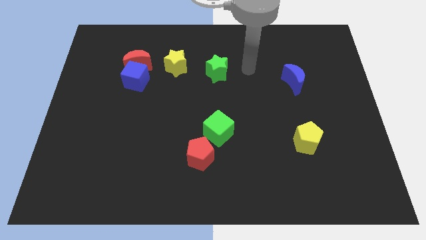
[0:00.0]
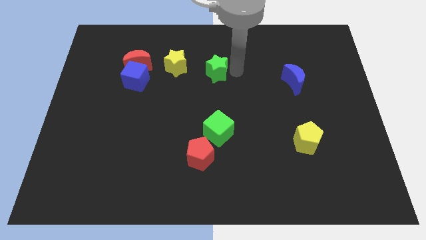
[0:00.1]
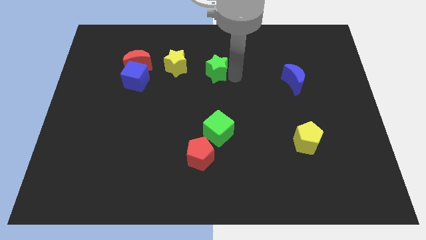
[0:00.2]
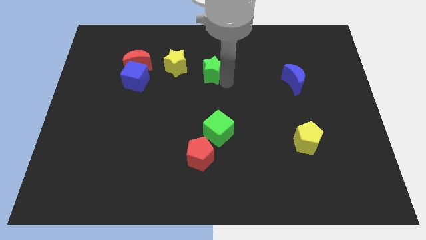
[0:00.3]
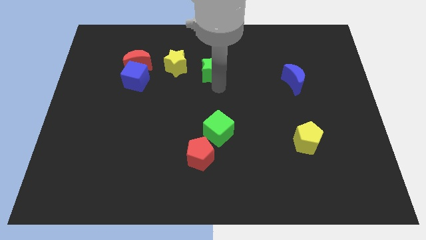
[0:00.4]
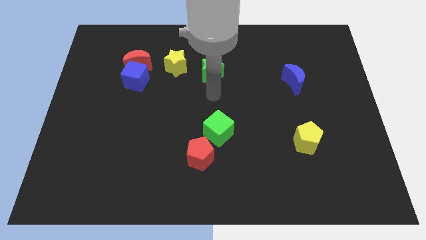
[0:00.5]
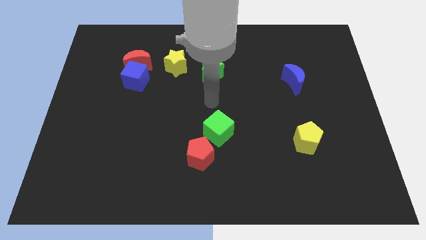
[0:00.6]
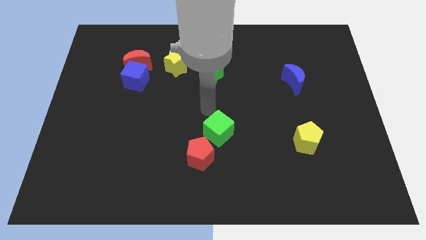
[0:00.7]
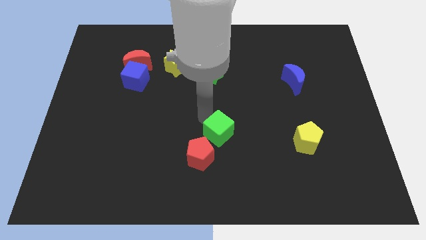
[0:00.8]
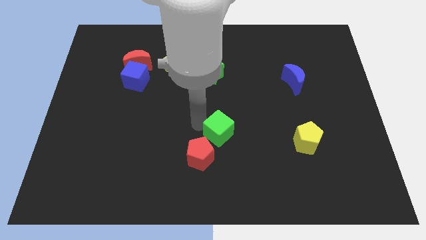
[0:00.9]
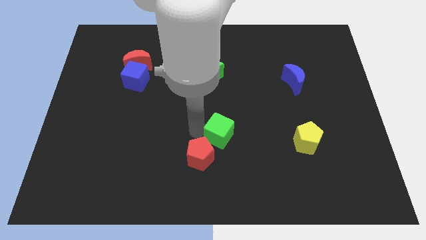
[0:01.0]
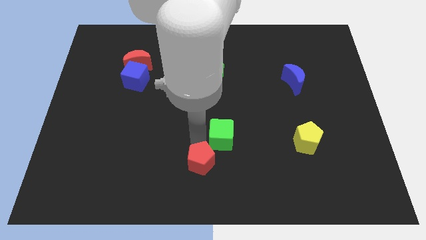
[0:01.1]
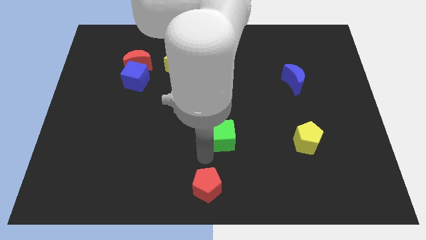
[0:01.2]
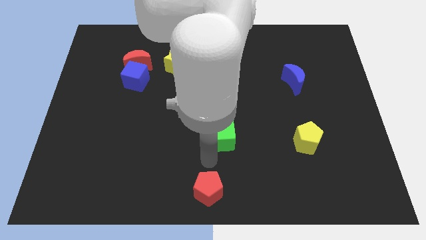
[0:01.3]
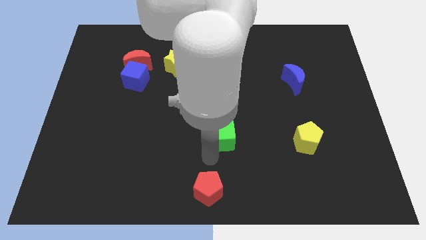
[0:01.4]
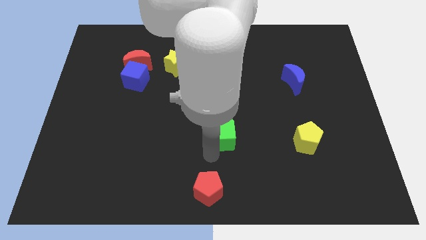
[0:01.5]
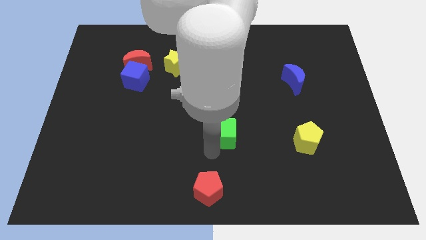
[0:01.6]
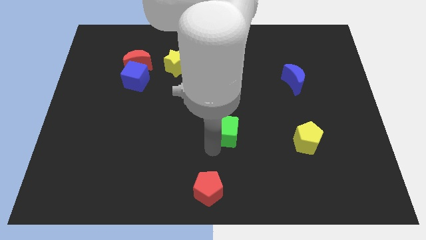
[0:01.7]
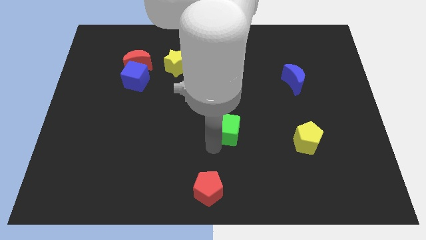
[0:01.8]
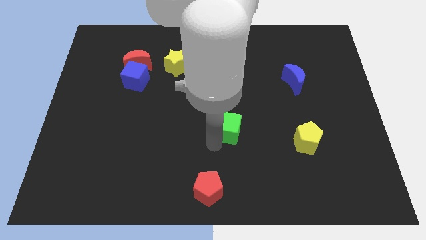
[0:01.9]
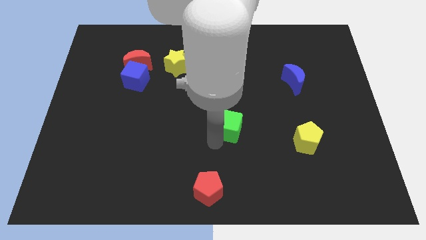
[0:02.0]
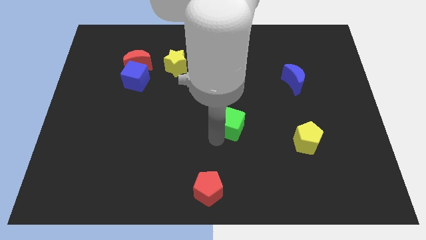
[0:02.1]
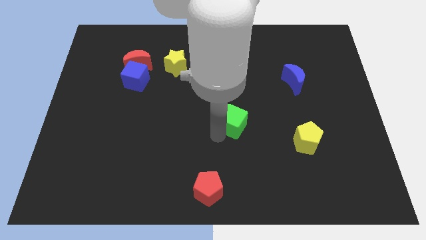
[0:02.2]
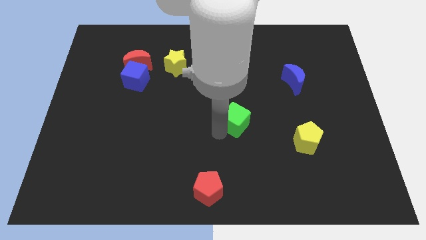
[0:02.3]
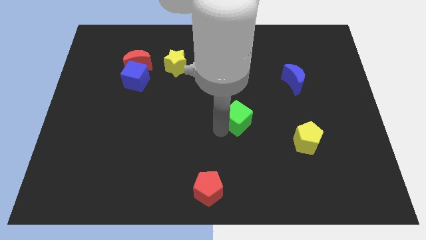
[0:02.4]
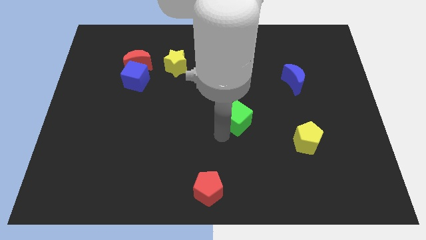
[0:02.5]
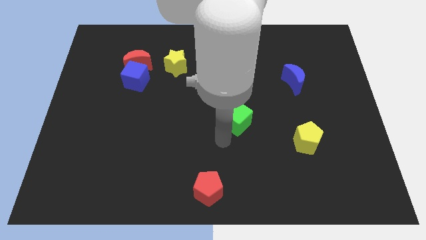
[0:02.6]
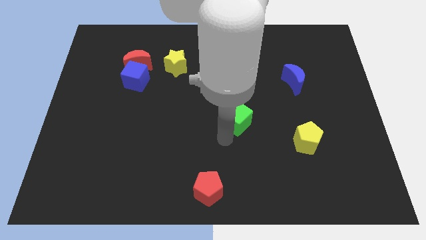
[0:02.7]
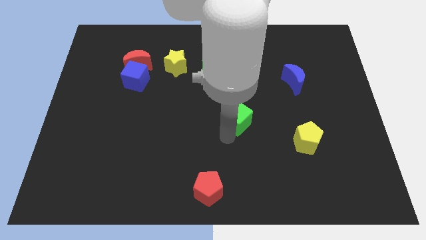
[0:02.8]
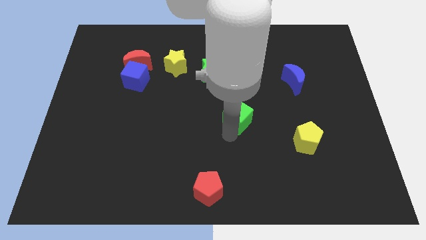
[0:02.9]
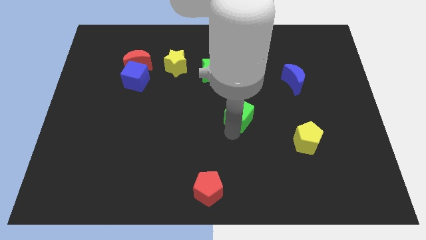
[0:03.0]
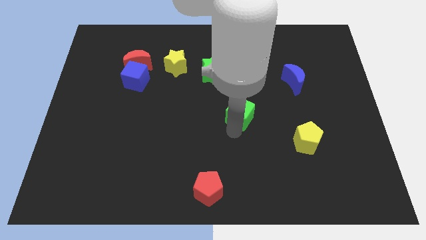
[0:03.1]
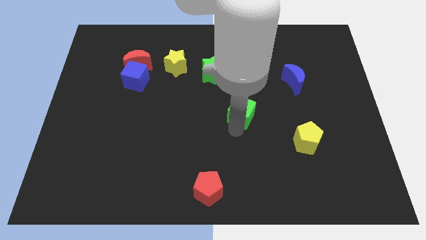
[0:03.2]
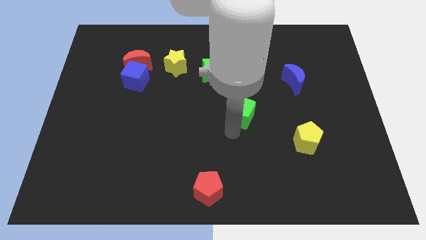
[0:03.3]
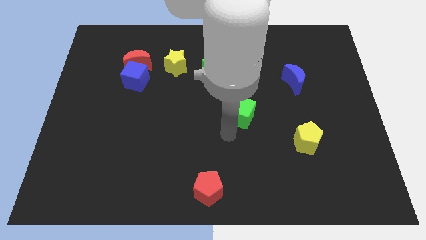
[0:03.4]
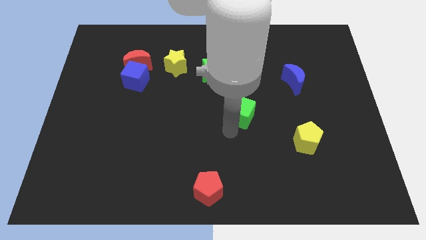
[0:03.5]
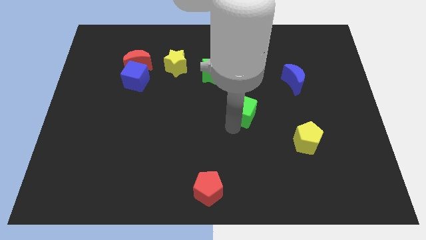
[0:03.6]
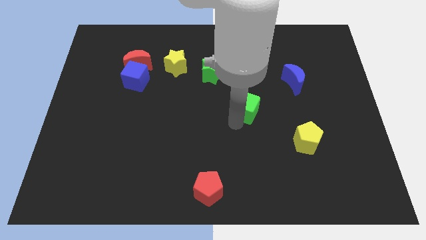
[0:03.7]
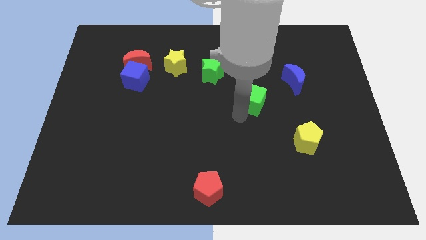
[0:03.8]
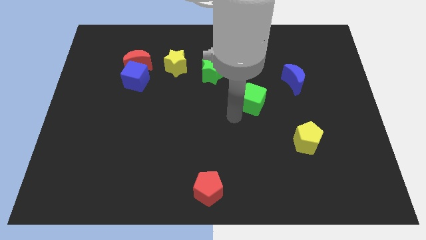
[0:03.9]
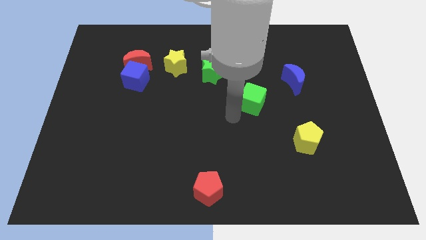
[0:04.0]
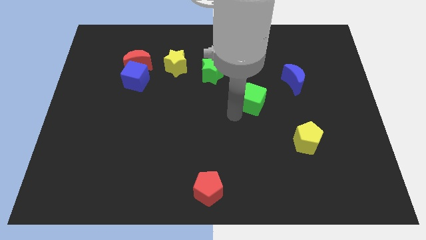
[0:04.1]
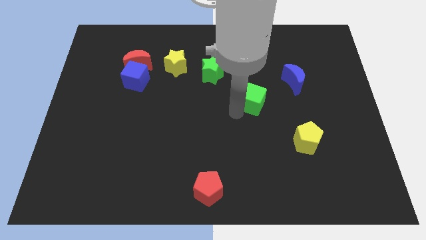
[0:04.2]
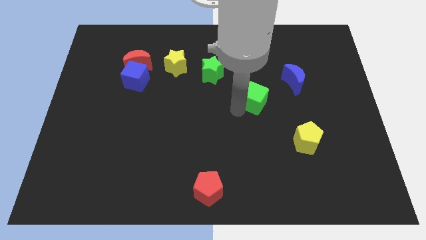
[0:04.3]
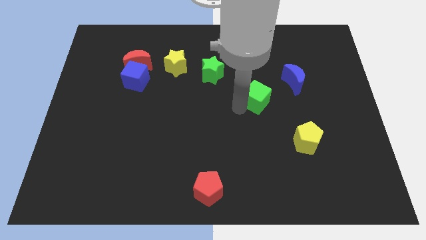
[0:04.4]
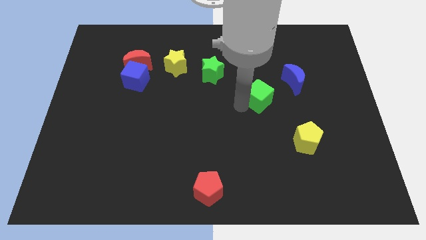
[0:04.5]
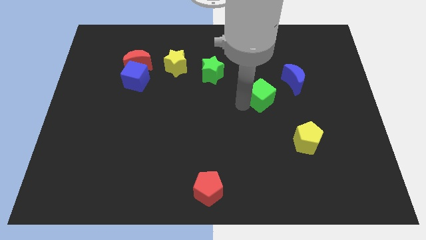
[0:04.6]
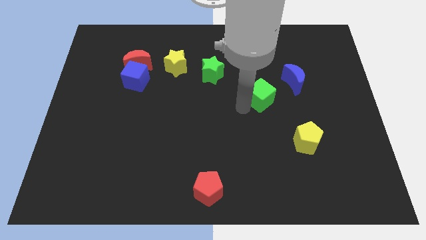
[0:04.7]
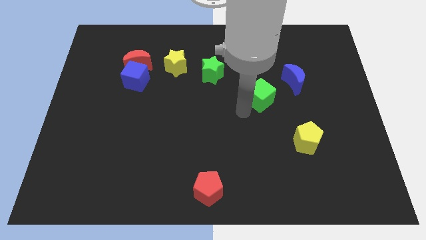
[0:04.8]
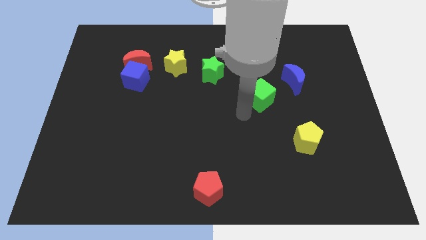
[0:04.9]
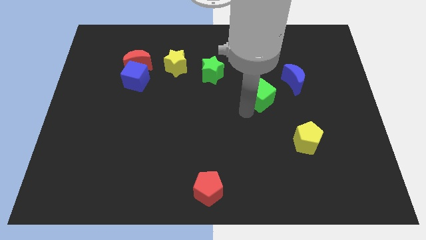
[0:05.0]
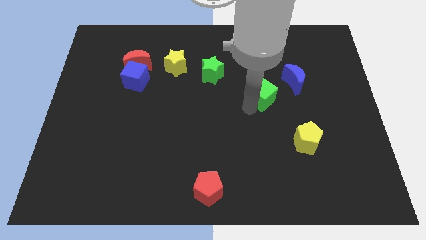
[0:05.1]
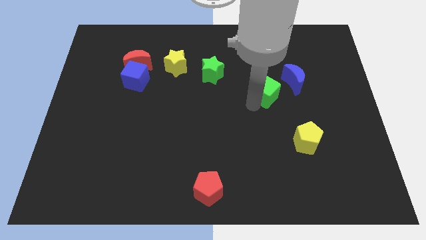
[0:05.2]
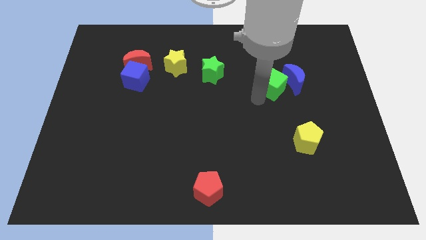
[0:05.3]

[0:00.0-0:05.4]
push the green cube towards the blue moon

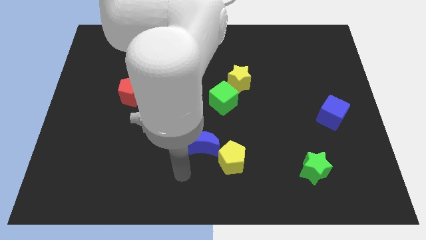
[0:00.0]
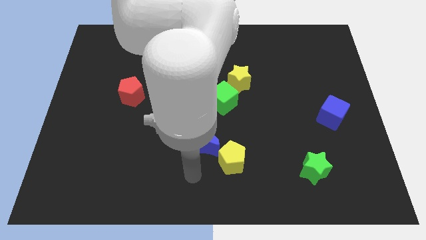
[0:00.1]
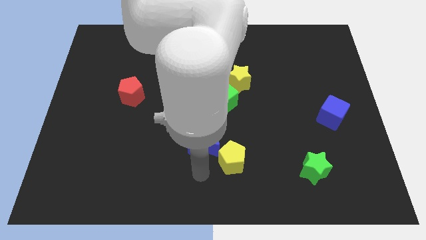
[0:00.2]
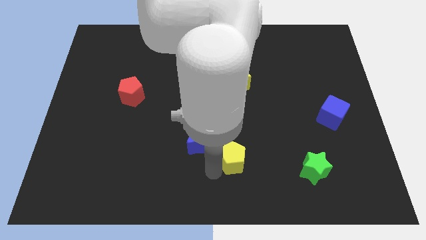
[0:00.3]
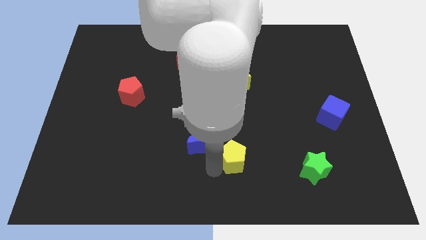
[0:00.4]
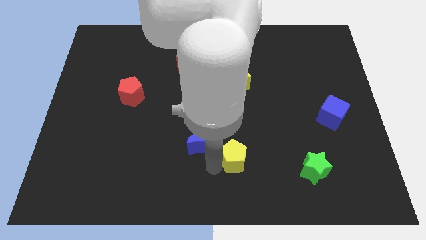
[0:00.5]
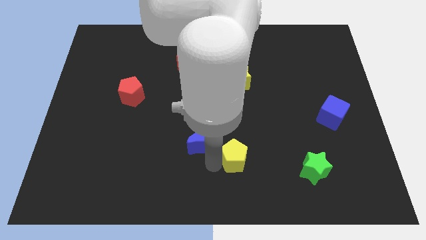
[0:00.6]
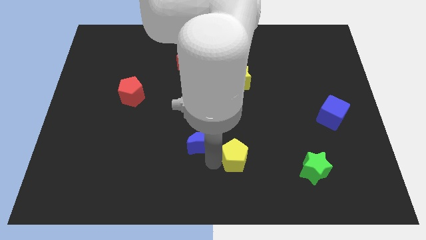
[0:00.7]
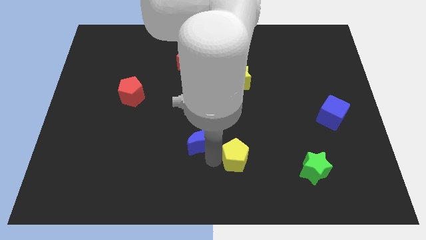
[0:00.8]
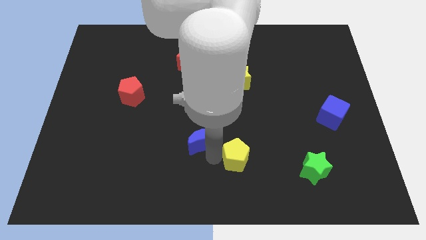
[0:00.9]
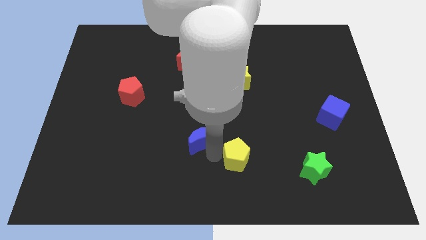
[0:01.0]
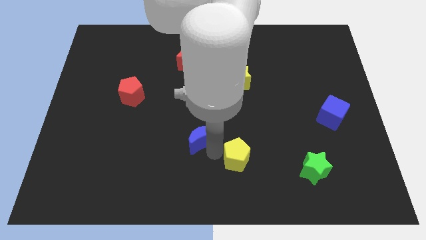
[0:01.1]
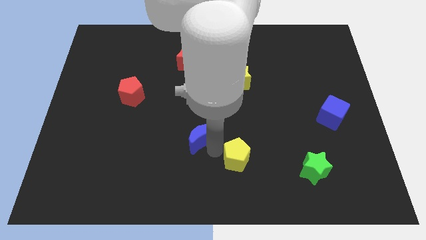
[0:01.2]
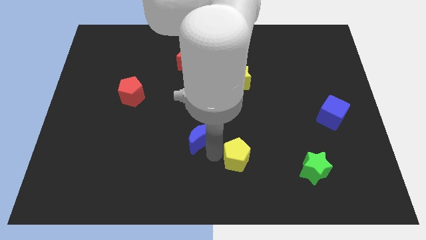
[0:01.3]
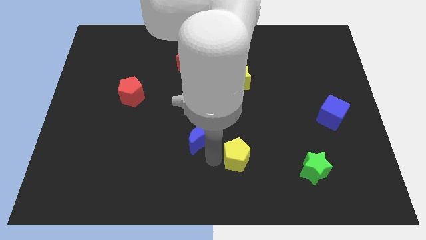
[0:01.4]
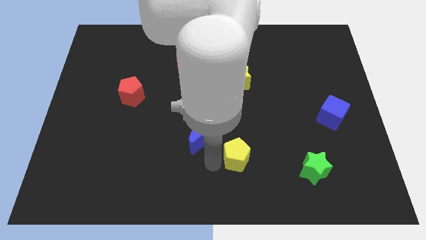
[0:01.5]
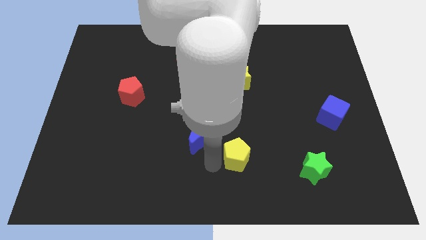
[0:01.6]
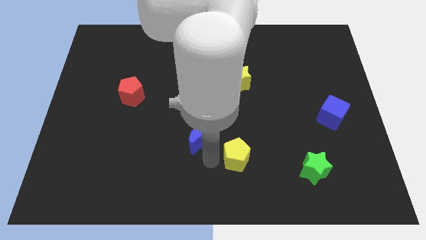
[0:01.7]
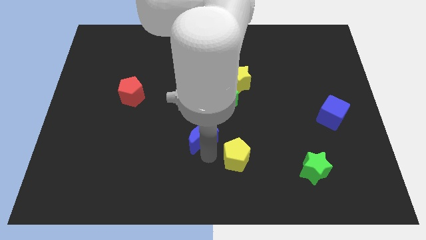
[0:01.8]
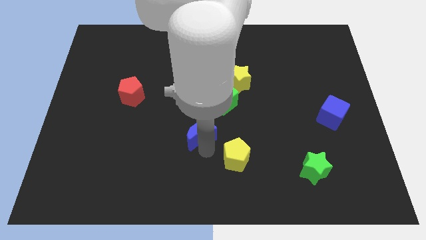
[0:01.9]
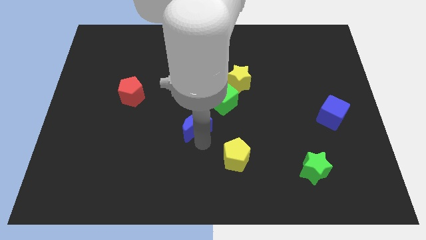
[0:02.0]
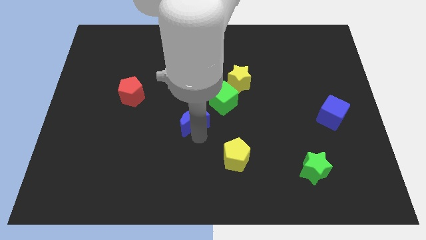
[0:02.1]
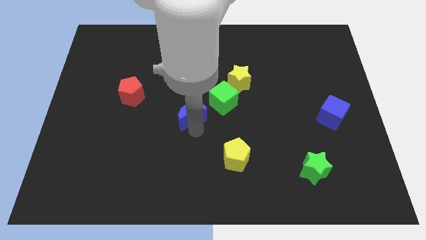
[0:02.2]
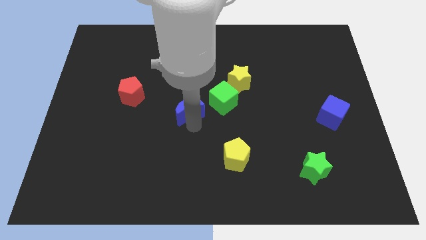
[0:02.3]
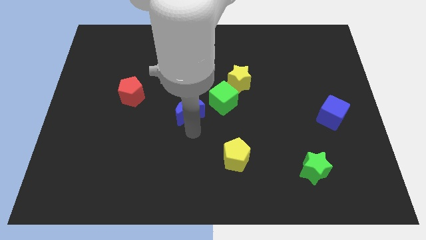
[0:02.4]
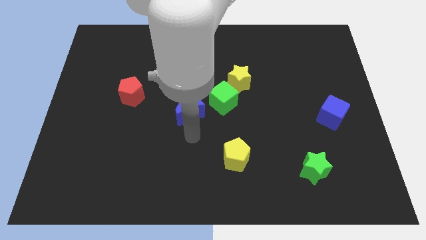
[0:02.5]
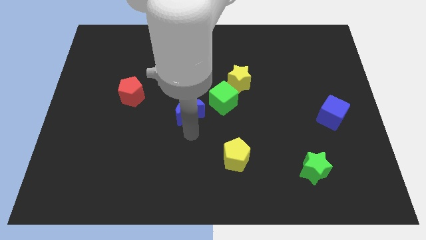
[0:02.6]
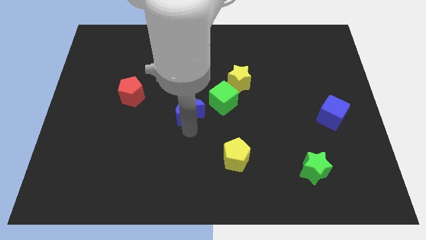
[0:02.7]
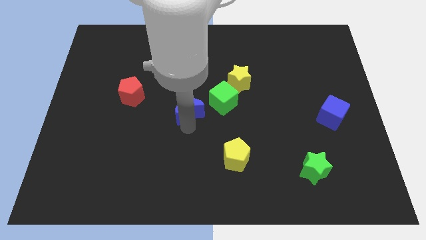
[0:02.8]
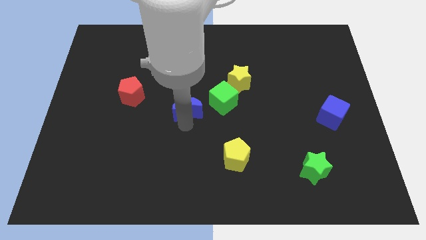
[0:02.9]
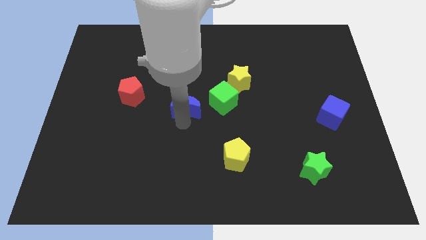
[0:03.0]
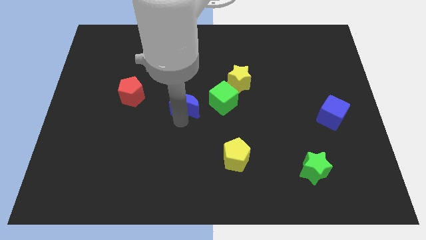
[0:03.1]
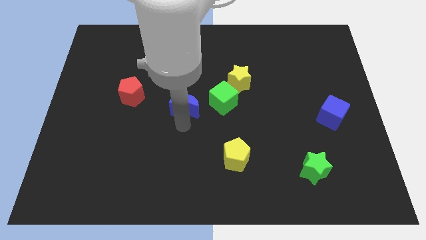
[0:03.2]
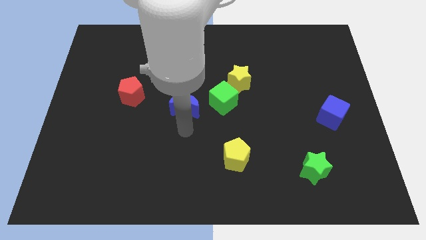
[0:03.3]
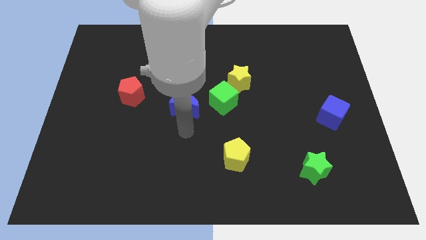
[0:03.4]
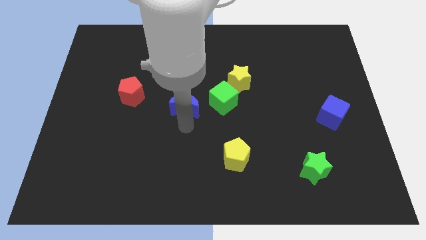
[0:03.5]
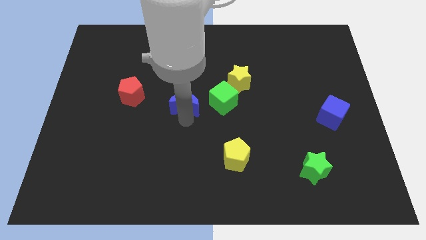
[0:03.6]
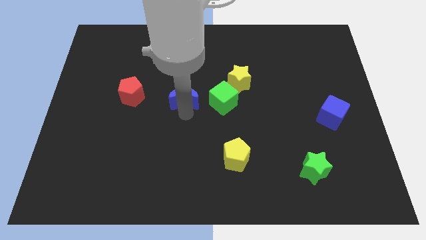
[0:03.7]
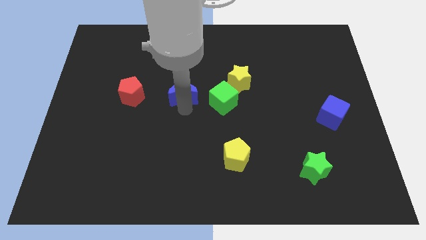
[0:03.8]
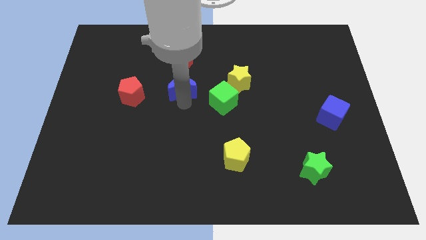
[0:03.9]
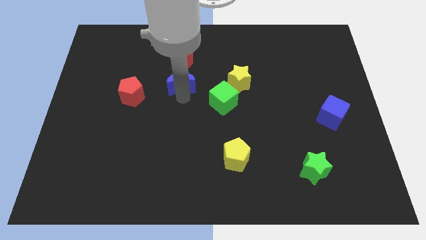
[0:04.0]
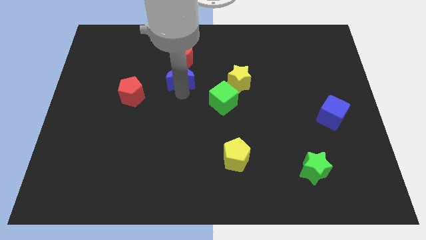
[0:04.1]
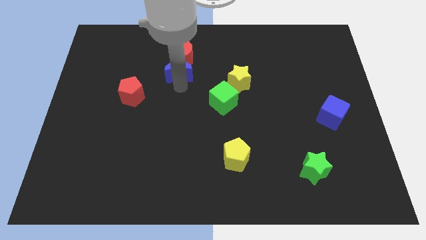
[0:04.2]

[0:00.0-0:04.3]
put the blue moon next to the red moon
